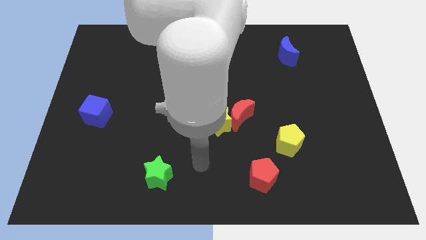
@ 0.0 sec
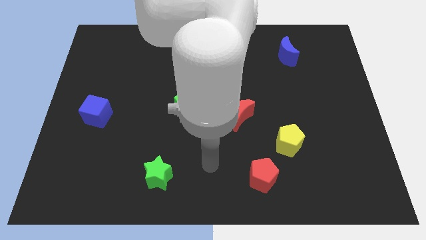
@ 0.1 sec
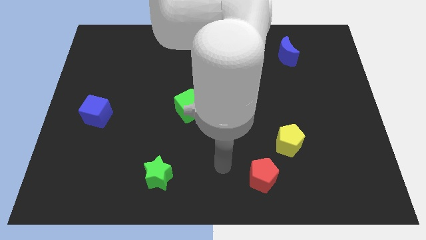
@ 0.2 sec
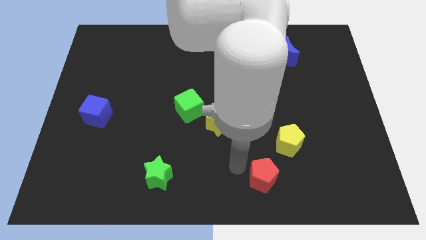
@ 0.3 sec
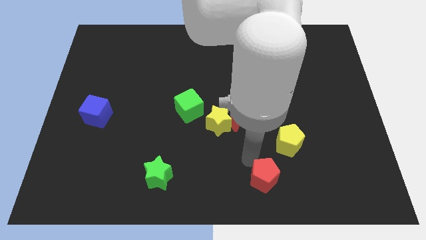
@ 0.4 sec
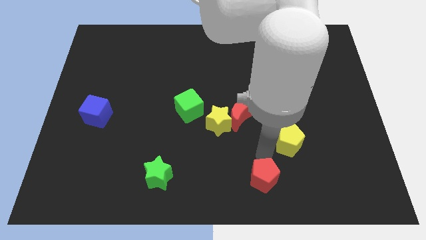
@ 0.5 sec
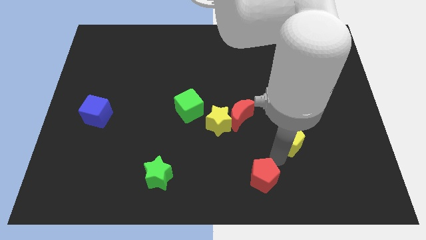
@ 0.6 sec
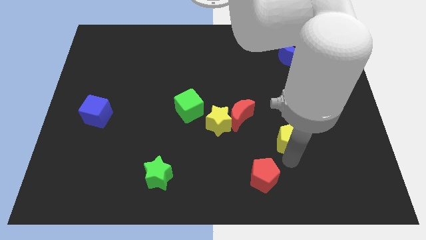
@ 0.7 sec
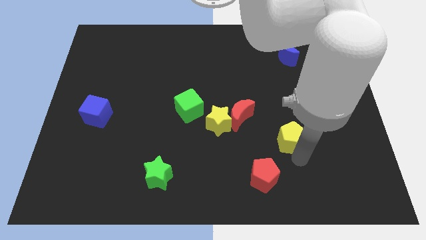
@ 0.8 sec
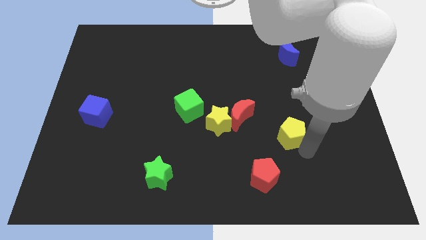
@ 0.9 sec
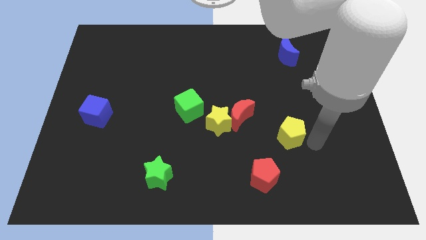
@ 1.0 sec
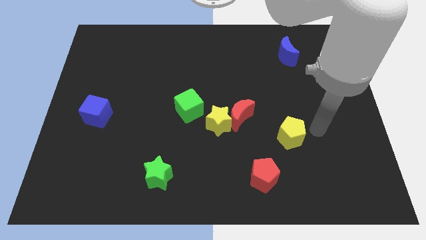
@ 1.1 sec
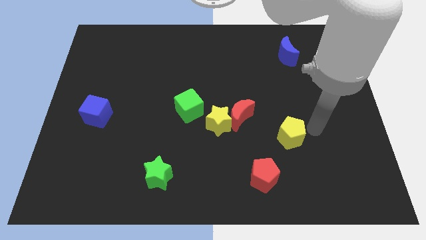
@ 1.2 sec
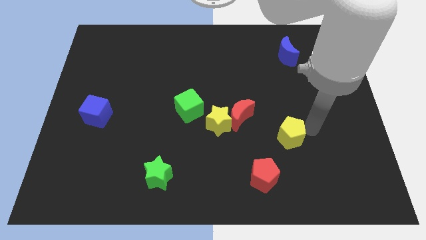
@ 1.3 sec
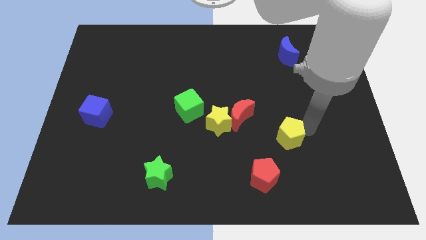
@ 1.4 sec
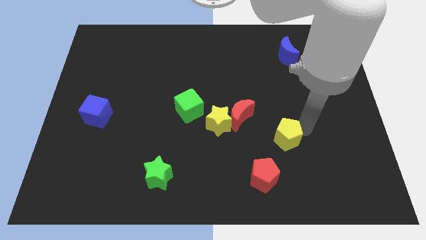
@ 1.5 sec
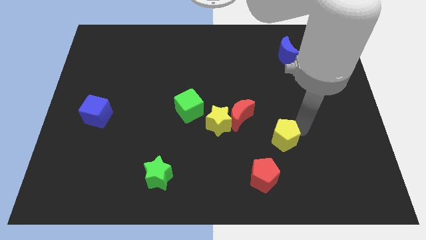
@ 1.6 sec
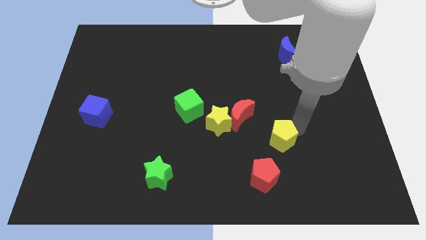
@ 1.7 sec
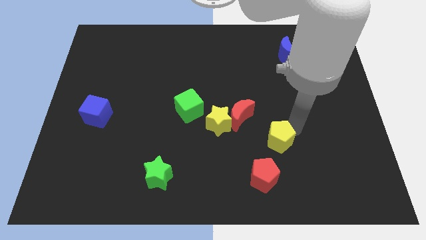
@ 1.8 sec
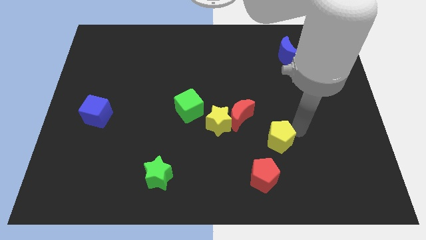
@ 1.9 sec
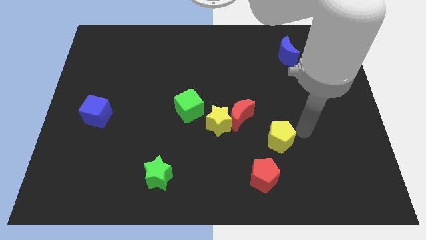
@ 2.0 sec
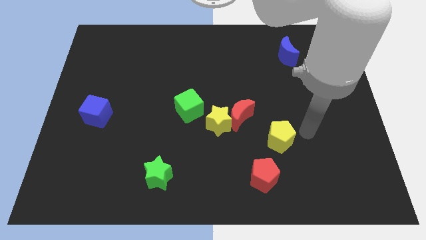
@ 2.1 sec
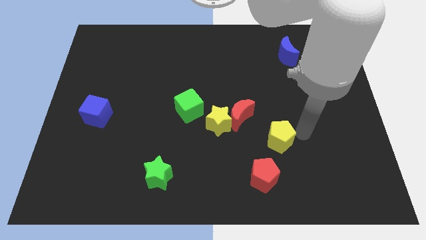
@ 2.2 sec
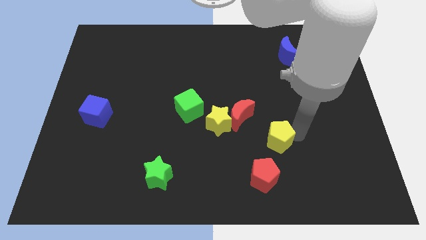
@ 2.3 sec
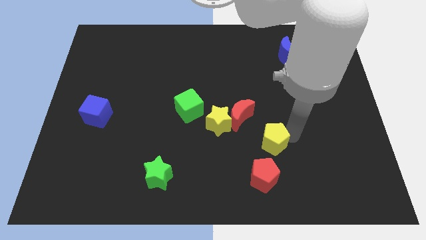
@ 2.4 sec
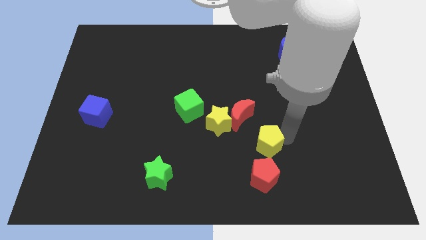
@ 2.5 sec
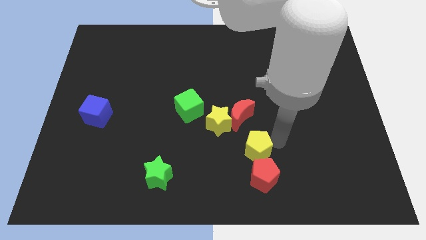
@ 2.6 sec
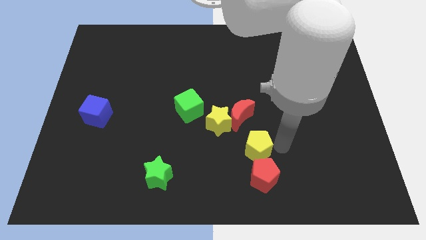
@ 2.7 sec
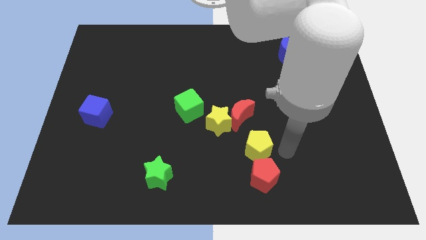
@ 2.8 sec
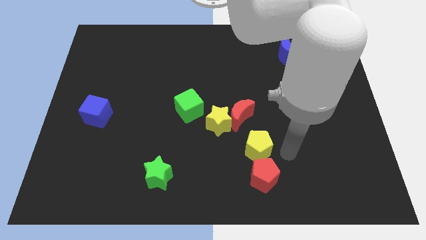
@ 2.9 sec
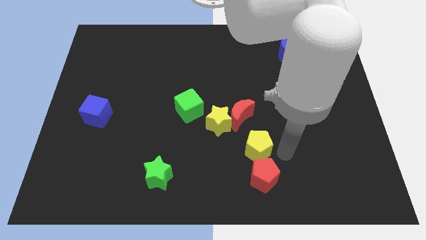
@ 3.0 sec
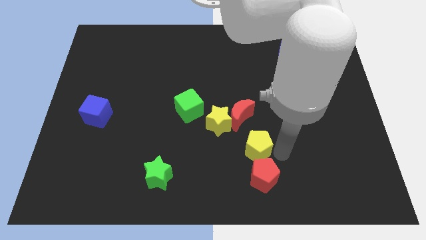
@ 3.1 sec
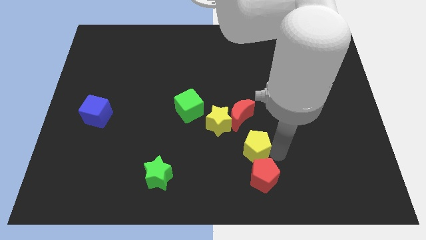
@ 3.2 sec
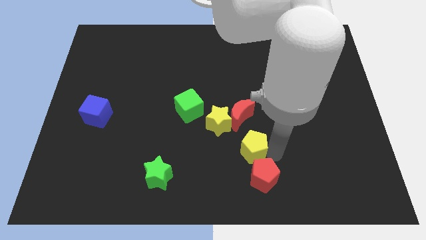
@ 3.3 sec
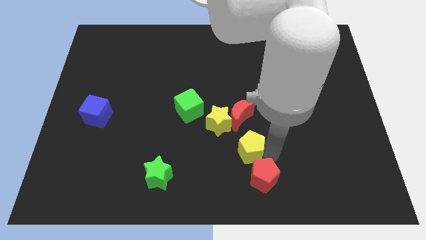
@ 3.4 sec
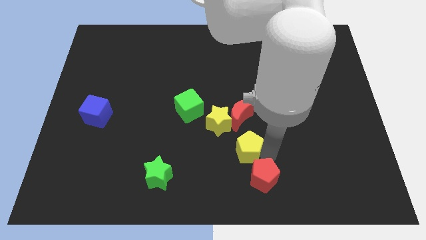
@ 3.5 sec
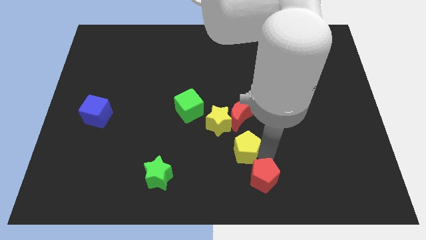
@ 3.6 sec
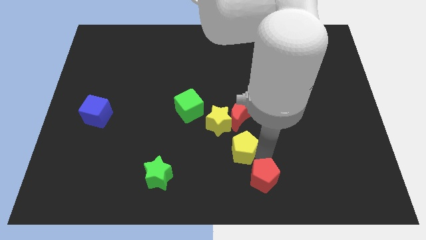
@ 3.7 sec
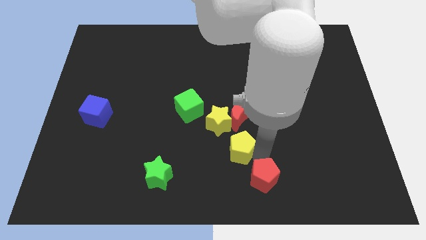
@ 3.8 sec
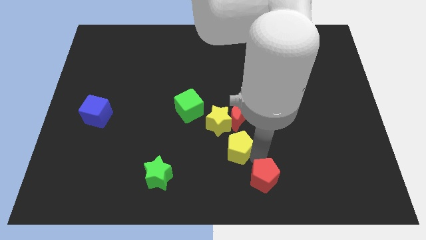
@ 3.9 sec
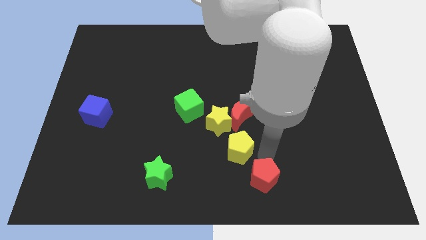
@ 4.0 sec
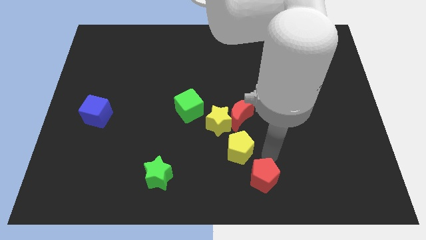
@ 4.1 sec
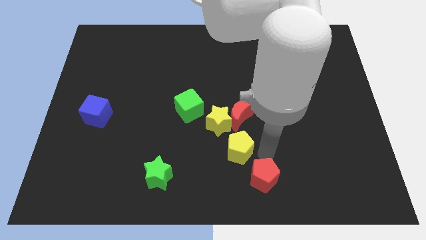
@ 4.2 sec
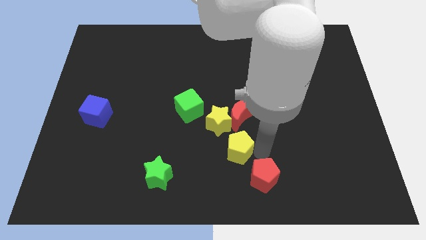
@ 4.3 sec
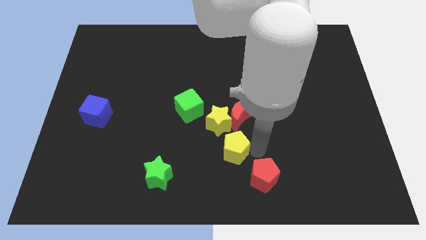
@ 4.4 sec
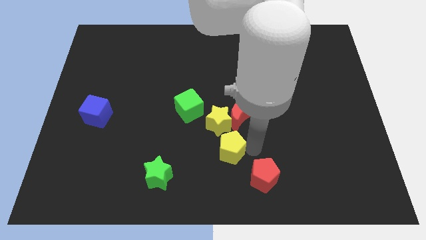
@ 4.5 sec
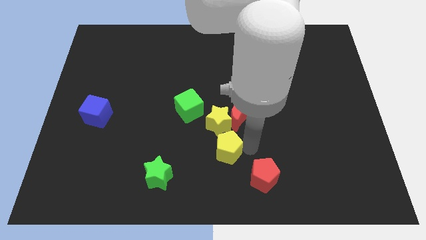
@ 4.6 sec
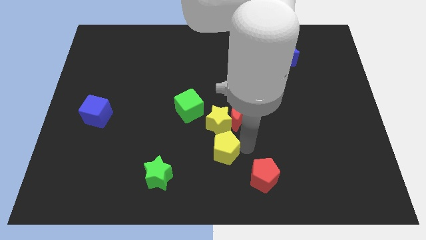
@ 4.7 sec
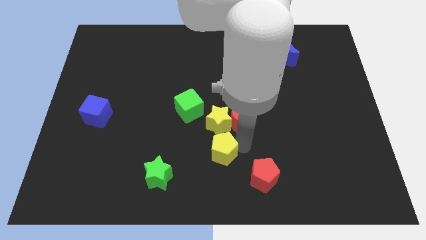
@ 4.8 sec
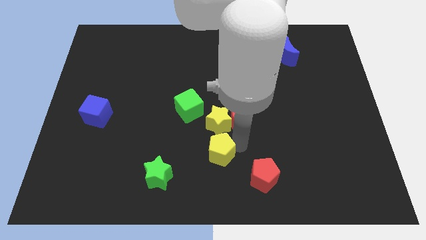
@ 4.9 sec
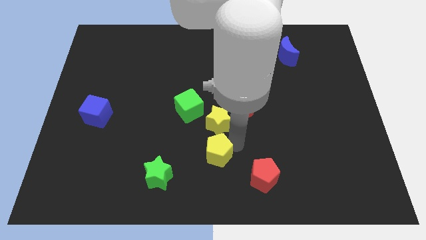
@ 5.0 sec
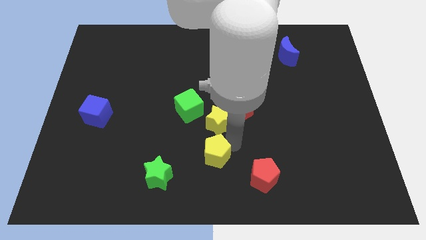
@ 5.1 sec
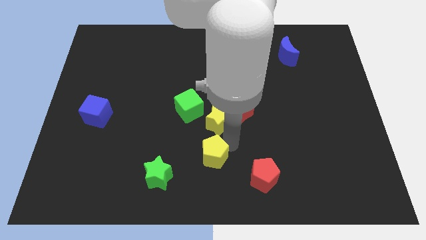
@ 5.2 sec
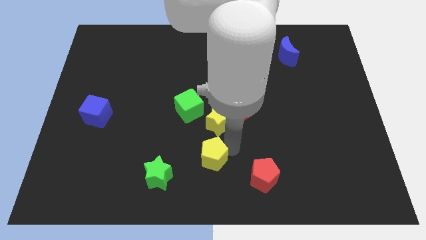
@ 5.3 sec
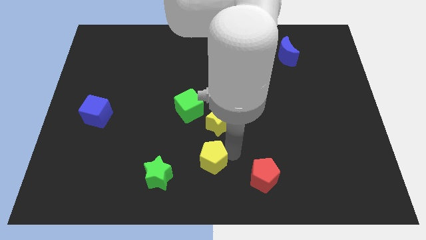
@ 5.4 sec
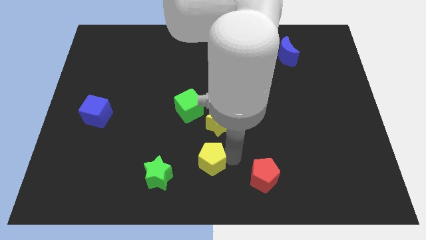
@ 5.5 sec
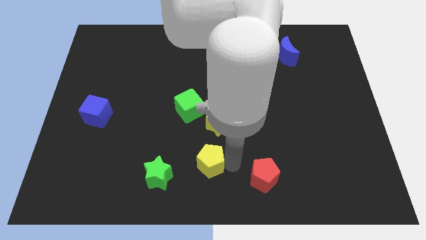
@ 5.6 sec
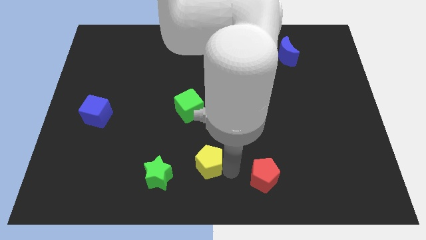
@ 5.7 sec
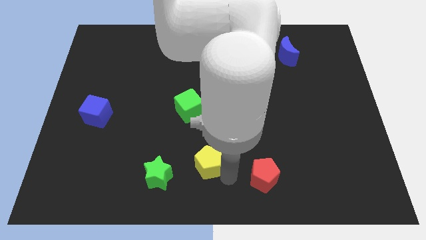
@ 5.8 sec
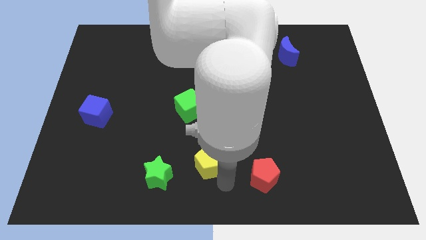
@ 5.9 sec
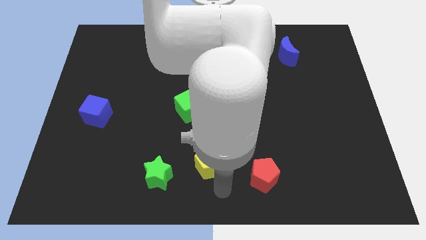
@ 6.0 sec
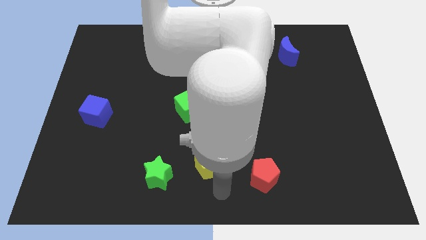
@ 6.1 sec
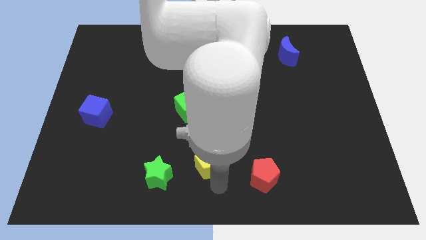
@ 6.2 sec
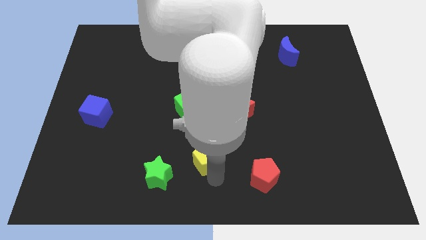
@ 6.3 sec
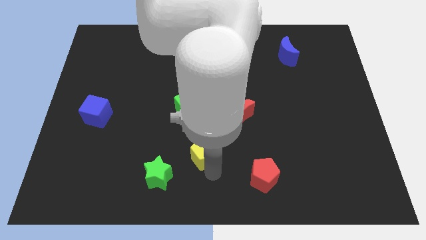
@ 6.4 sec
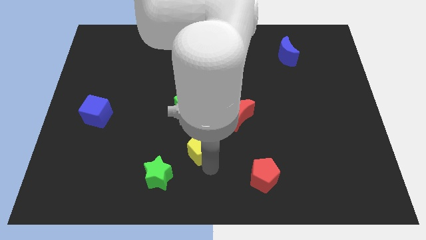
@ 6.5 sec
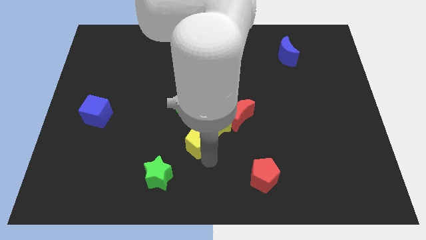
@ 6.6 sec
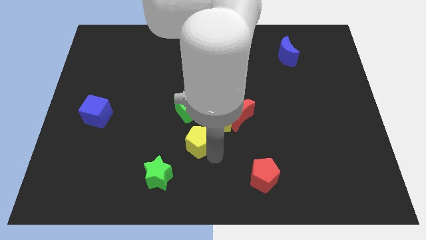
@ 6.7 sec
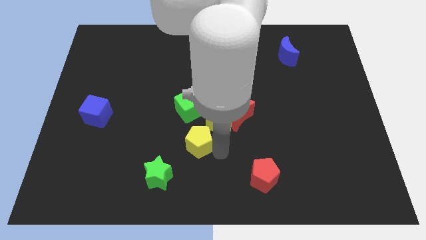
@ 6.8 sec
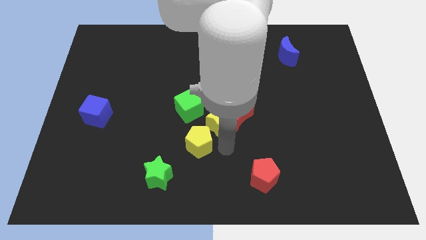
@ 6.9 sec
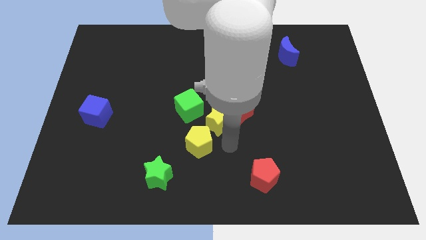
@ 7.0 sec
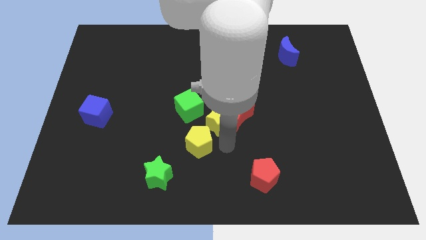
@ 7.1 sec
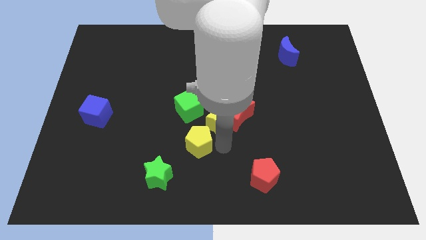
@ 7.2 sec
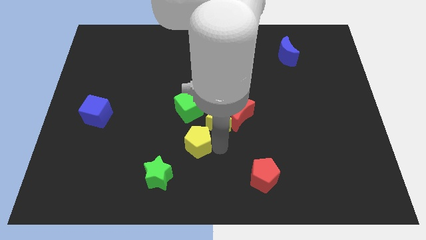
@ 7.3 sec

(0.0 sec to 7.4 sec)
move the yellow pentagon left

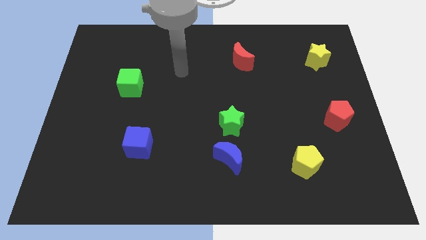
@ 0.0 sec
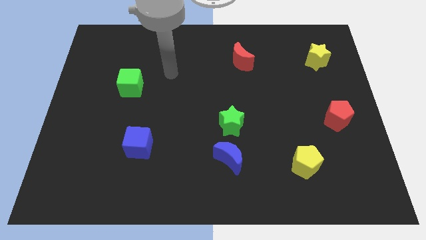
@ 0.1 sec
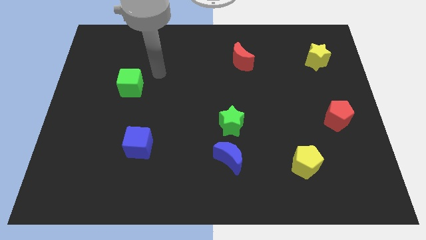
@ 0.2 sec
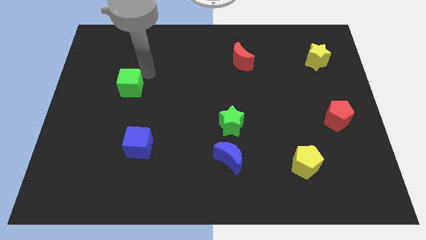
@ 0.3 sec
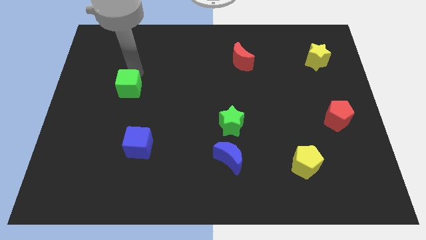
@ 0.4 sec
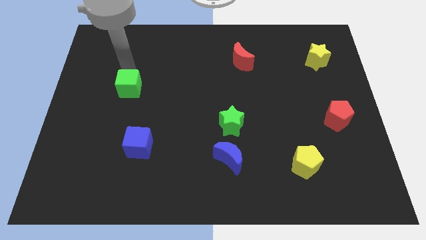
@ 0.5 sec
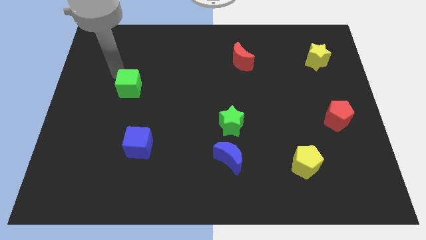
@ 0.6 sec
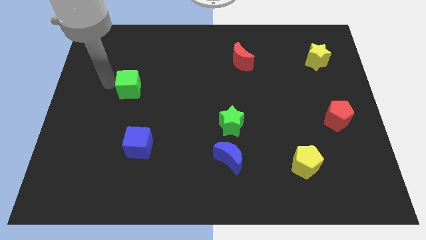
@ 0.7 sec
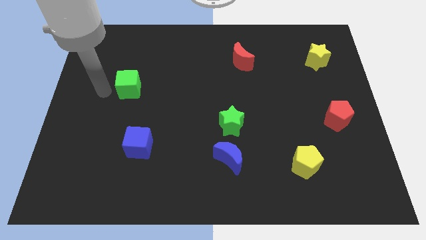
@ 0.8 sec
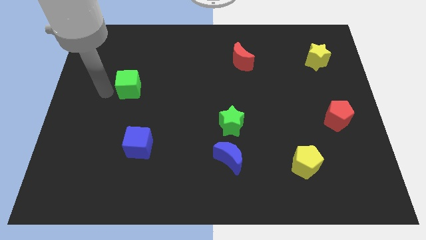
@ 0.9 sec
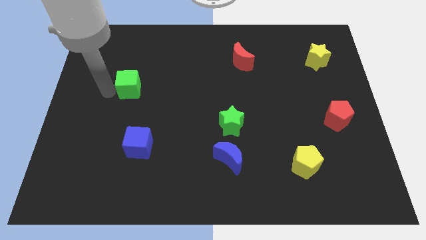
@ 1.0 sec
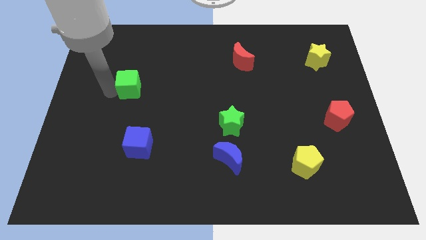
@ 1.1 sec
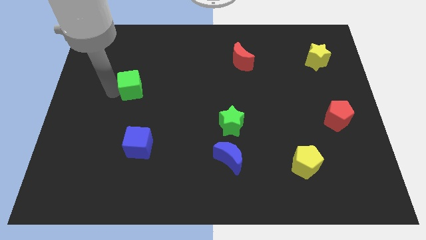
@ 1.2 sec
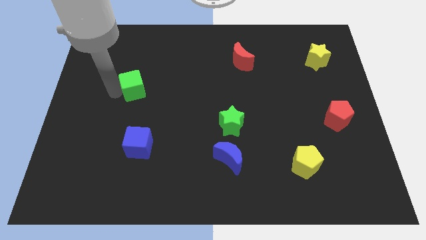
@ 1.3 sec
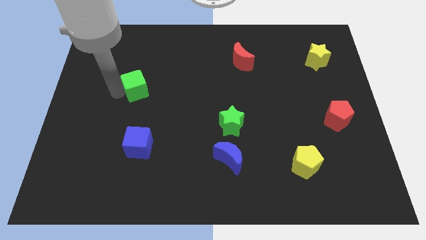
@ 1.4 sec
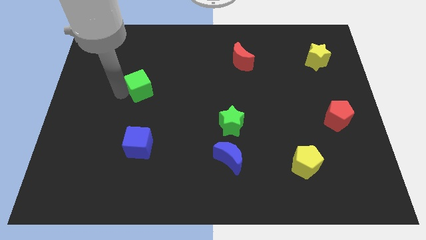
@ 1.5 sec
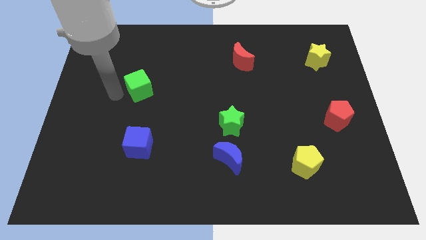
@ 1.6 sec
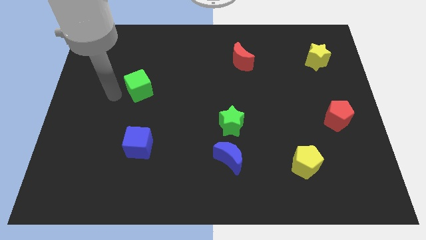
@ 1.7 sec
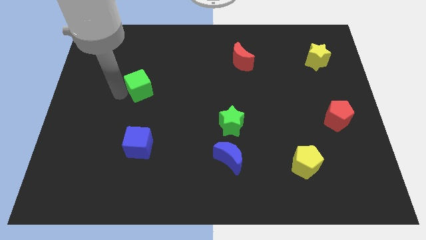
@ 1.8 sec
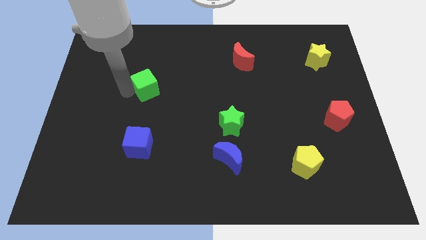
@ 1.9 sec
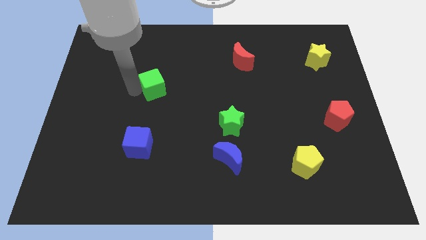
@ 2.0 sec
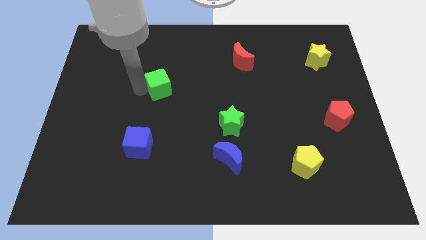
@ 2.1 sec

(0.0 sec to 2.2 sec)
move the green cube right a little
